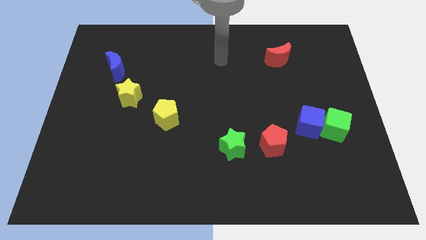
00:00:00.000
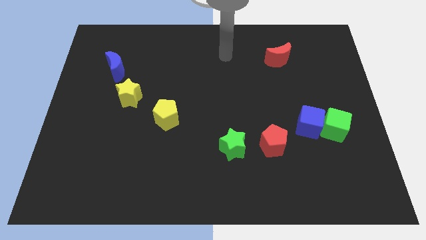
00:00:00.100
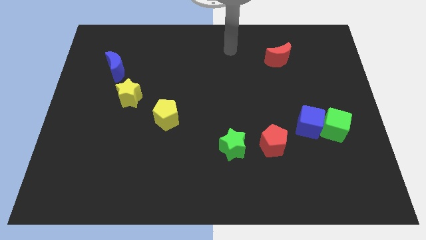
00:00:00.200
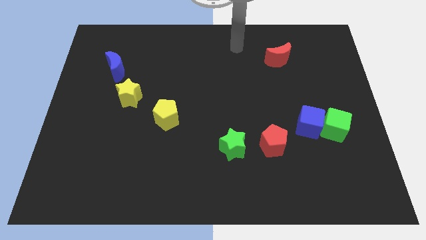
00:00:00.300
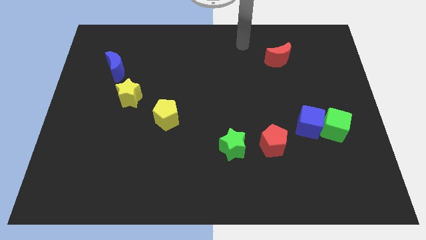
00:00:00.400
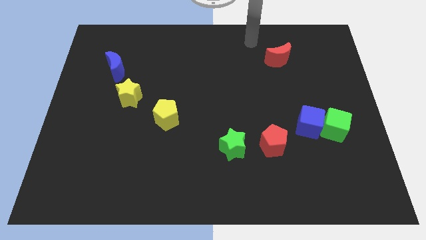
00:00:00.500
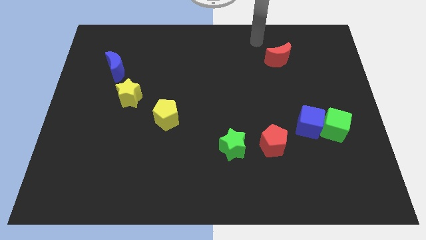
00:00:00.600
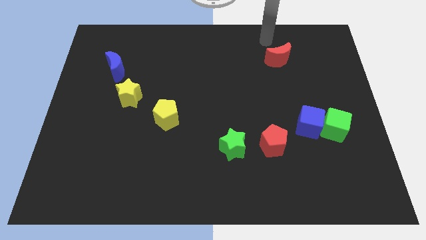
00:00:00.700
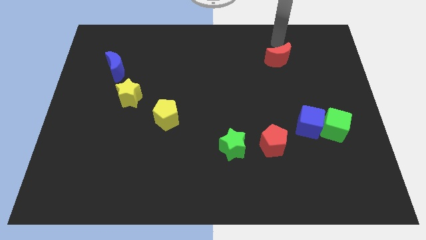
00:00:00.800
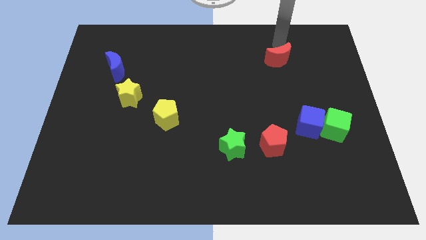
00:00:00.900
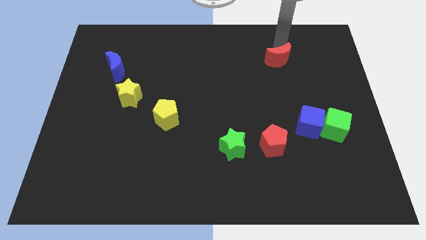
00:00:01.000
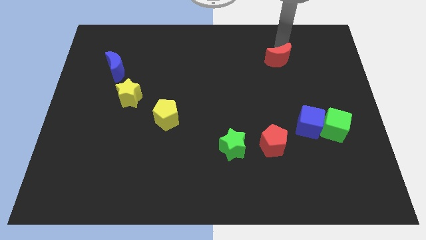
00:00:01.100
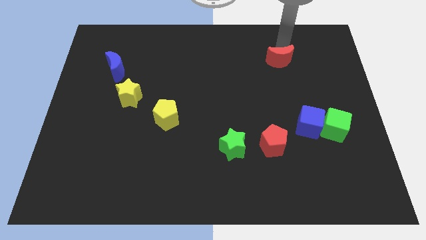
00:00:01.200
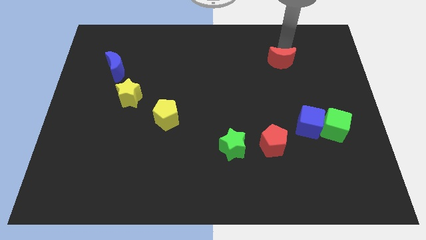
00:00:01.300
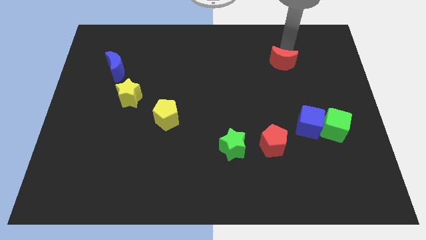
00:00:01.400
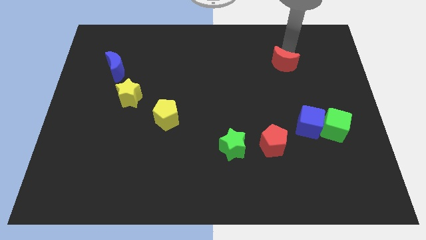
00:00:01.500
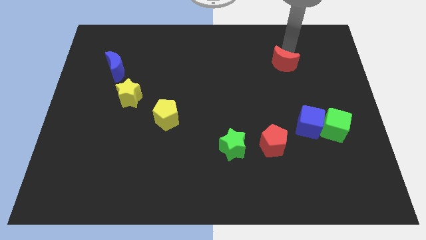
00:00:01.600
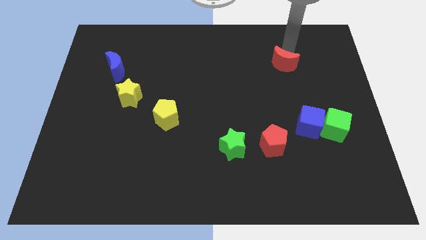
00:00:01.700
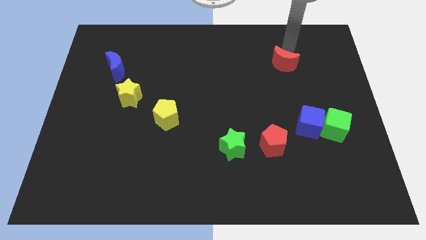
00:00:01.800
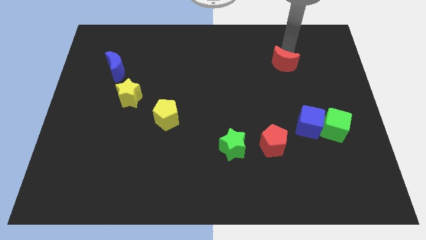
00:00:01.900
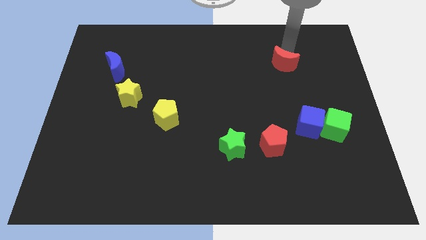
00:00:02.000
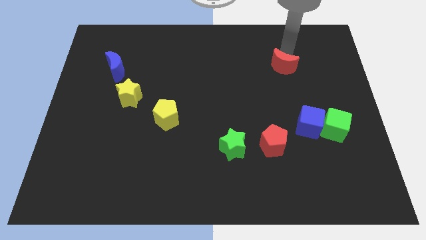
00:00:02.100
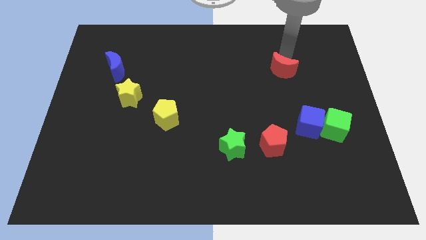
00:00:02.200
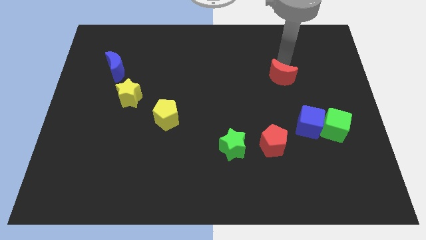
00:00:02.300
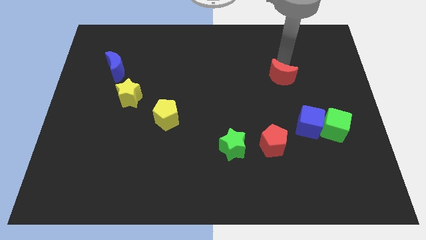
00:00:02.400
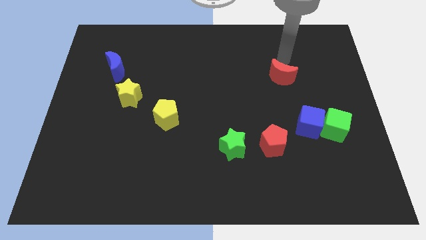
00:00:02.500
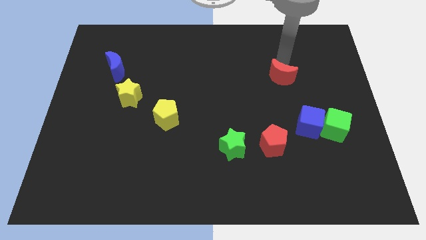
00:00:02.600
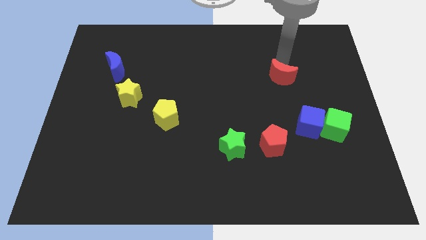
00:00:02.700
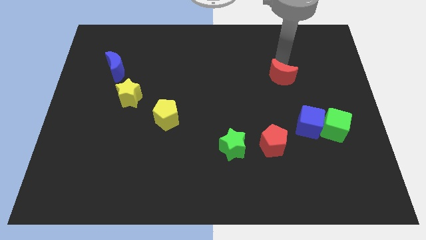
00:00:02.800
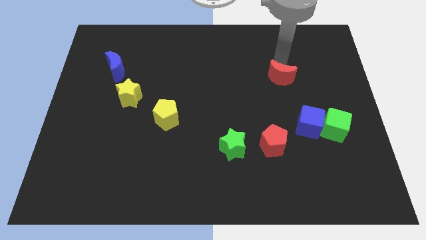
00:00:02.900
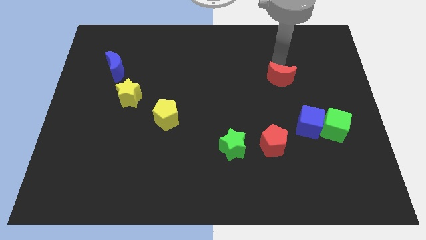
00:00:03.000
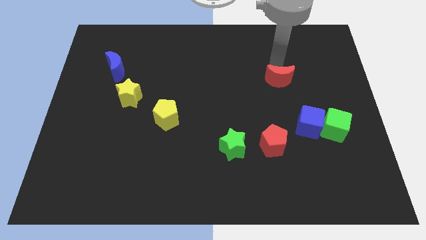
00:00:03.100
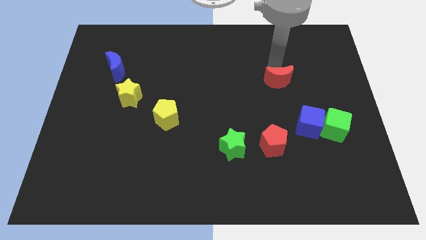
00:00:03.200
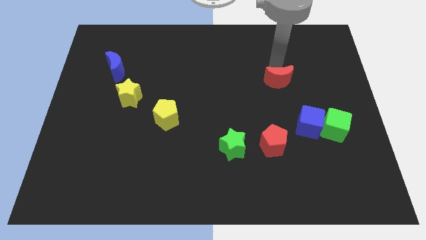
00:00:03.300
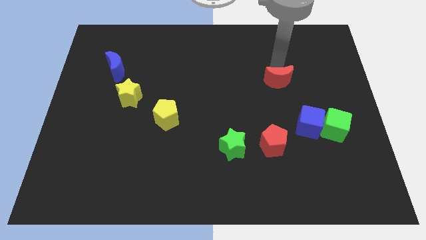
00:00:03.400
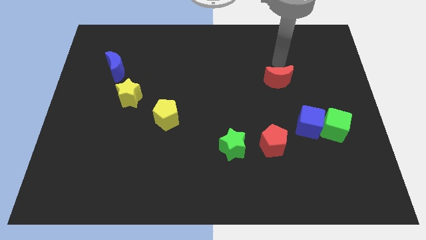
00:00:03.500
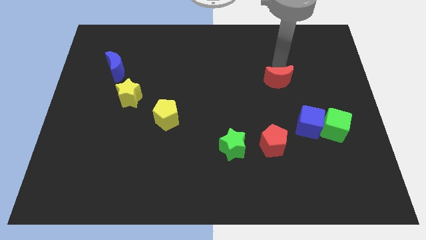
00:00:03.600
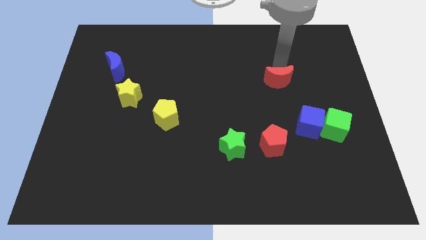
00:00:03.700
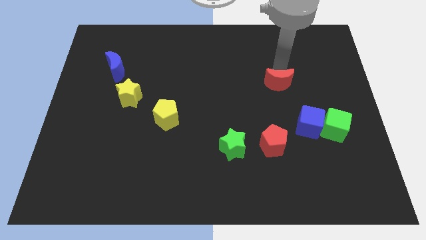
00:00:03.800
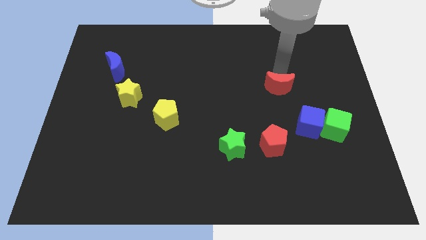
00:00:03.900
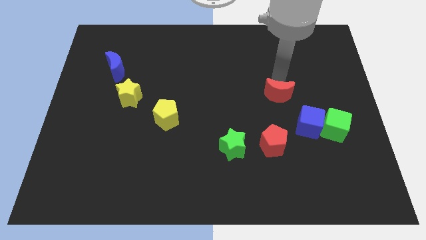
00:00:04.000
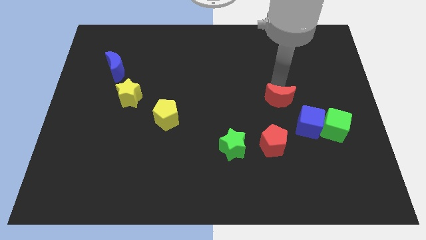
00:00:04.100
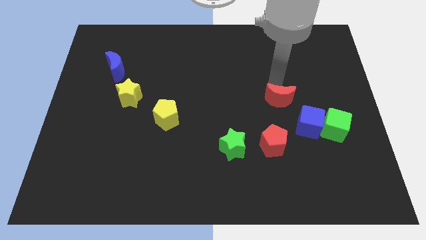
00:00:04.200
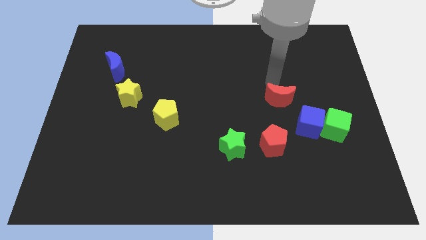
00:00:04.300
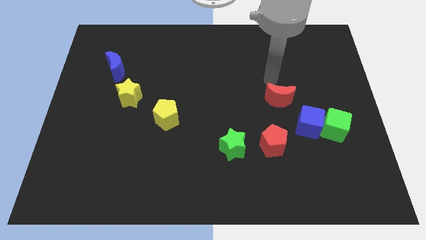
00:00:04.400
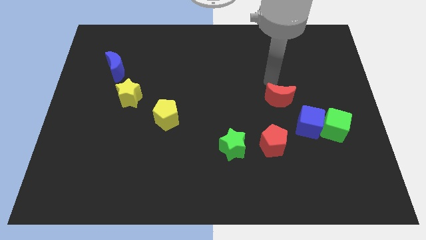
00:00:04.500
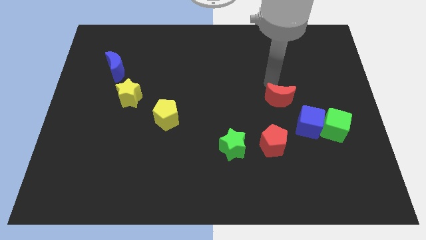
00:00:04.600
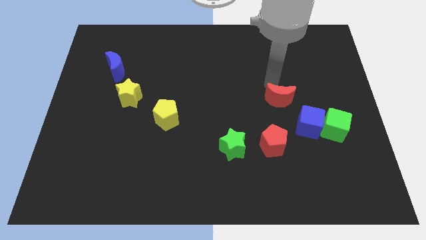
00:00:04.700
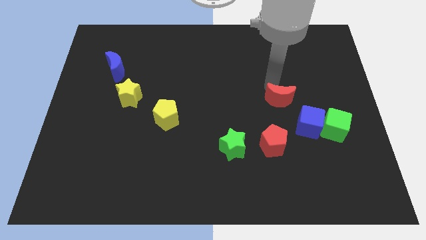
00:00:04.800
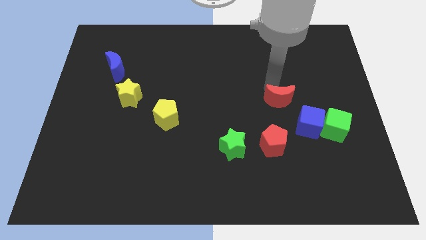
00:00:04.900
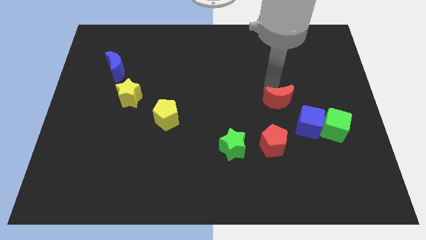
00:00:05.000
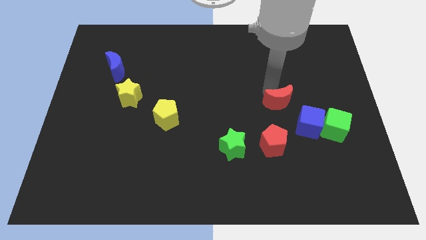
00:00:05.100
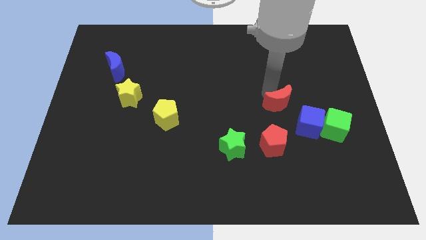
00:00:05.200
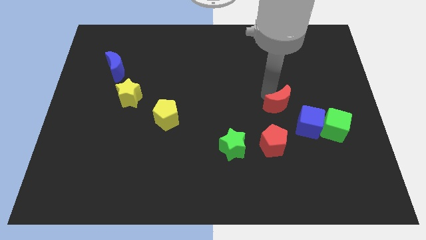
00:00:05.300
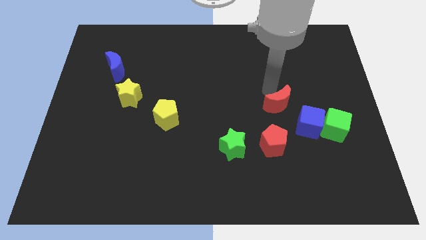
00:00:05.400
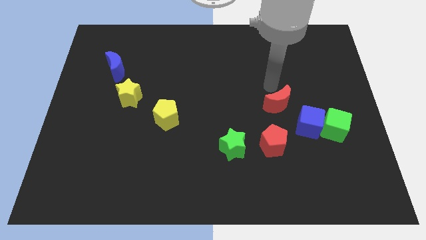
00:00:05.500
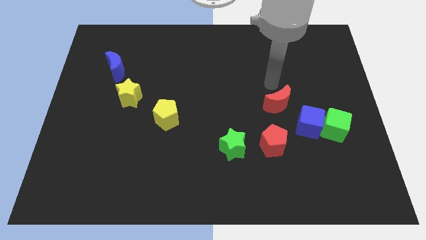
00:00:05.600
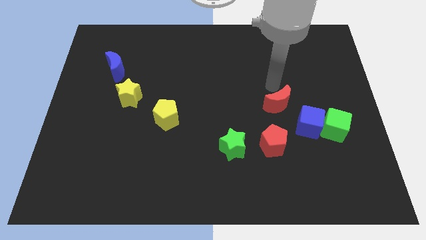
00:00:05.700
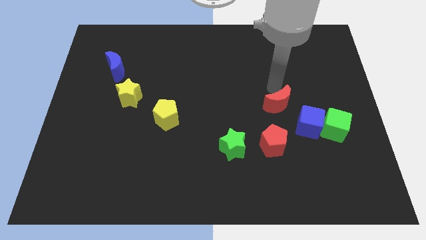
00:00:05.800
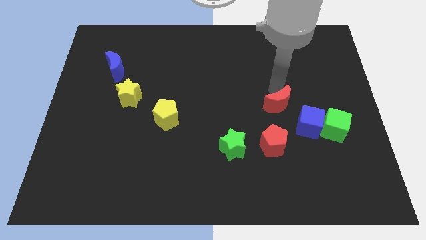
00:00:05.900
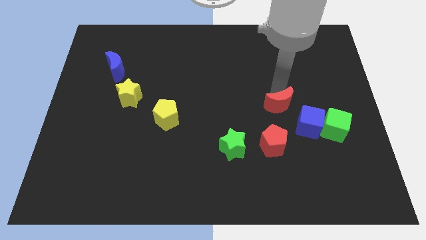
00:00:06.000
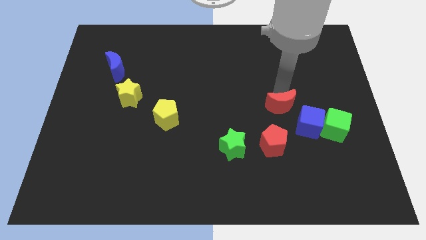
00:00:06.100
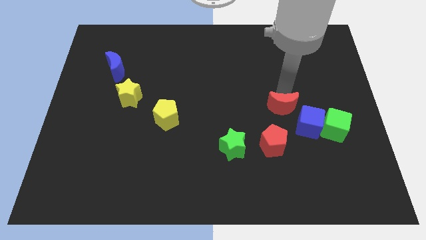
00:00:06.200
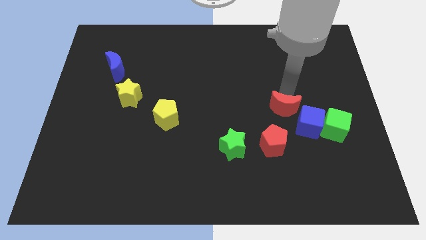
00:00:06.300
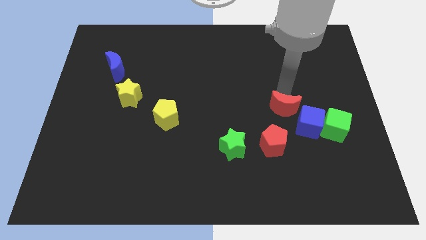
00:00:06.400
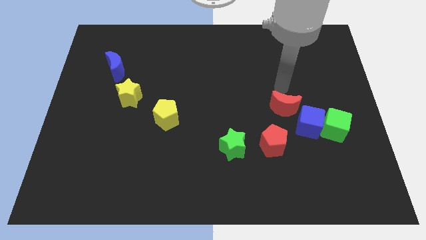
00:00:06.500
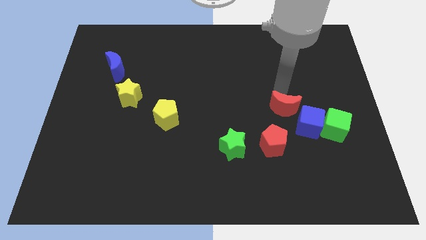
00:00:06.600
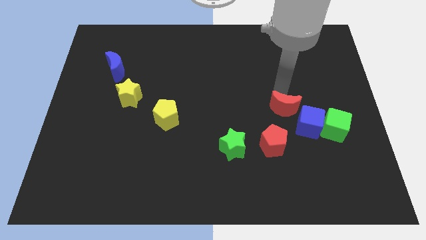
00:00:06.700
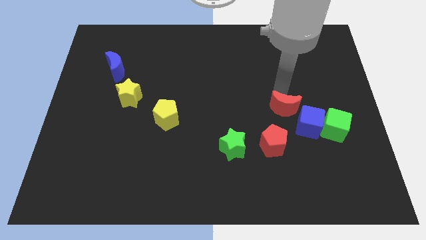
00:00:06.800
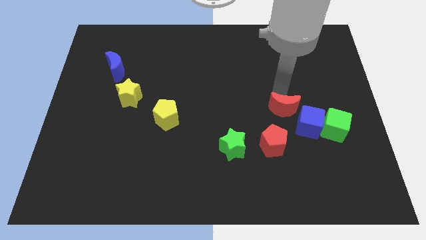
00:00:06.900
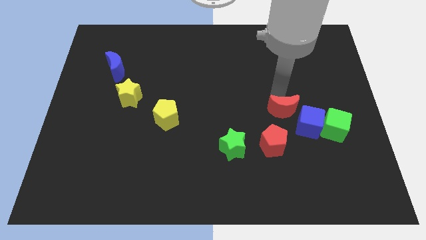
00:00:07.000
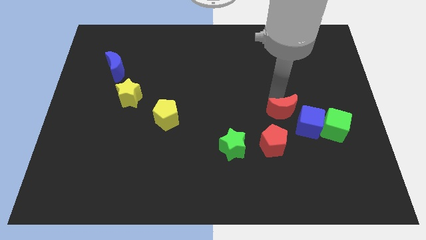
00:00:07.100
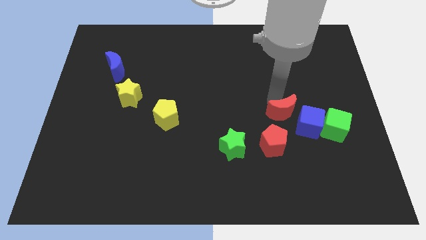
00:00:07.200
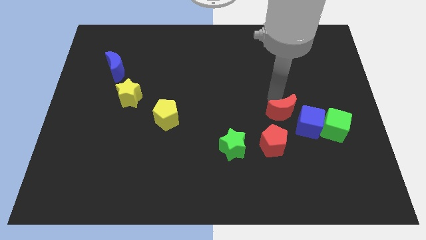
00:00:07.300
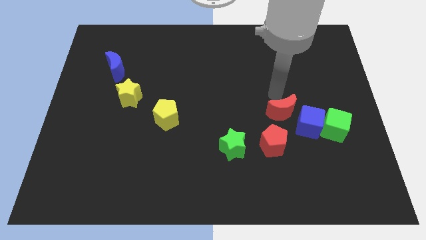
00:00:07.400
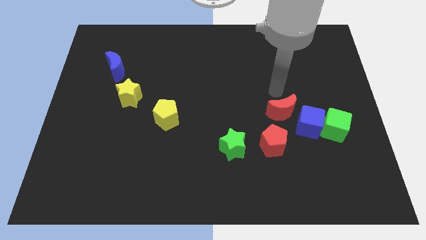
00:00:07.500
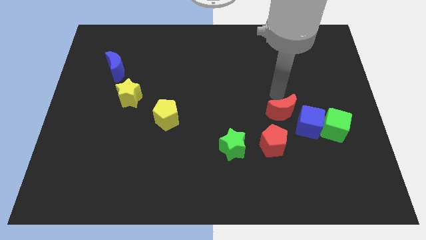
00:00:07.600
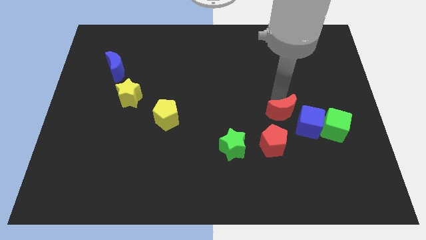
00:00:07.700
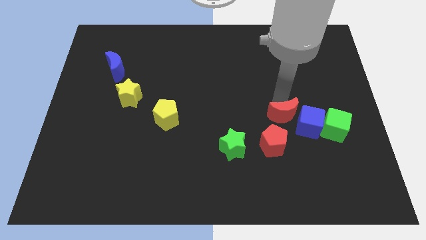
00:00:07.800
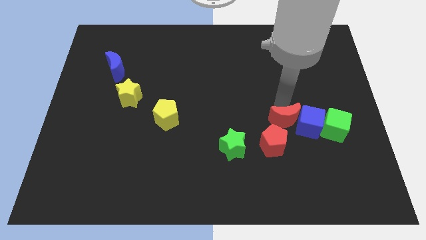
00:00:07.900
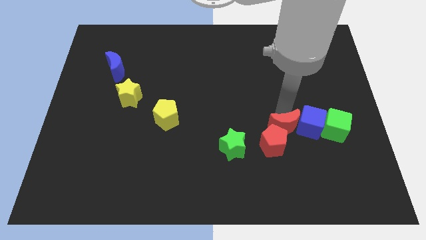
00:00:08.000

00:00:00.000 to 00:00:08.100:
move the red moon downwards
